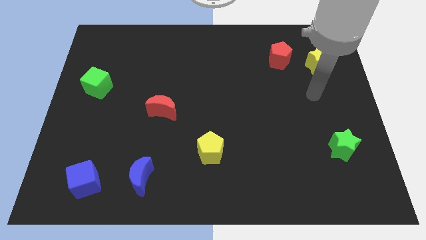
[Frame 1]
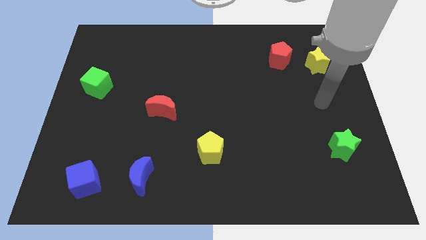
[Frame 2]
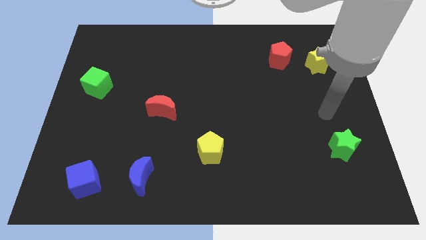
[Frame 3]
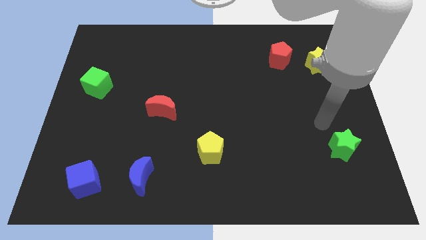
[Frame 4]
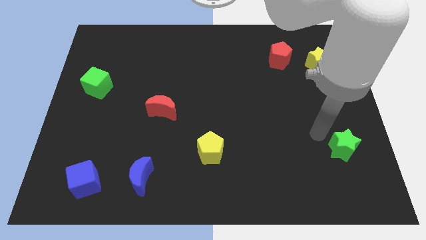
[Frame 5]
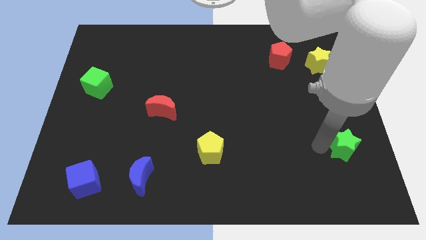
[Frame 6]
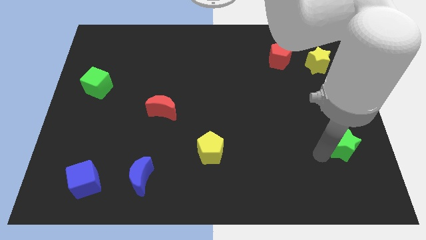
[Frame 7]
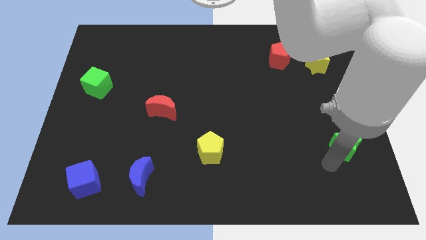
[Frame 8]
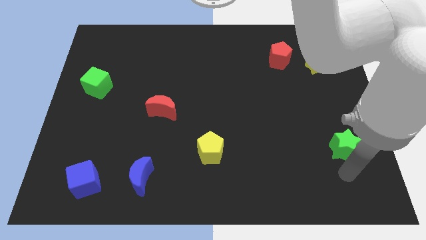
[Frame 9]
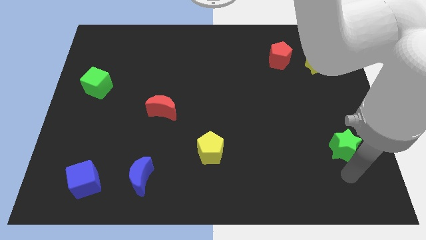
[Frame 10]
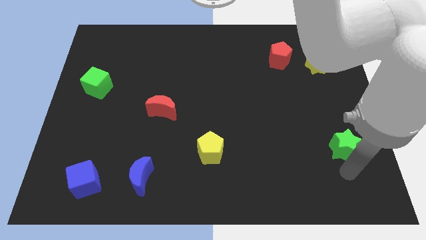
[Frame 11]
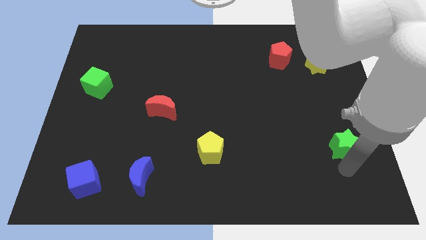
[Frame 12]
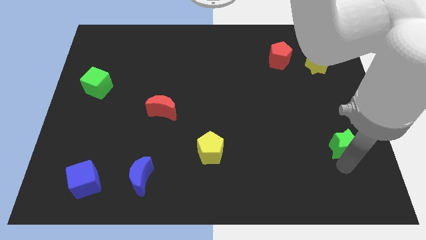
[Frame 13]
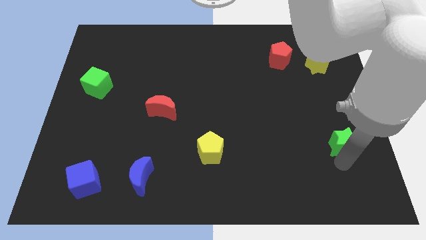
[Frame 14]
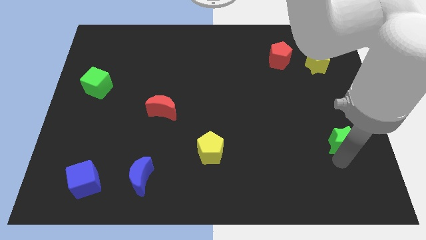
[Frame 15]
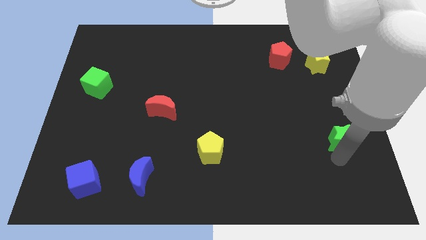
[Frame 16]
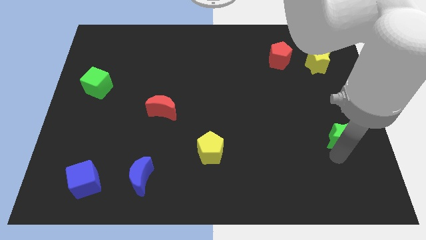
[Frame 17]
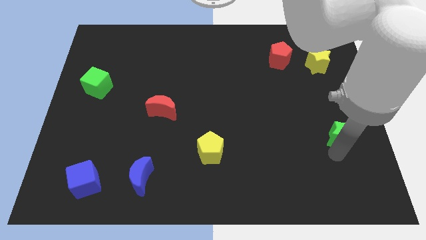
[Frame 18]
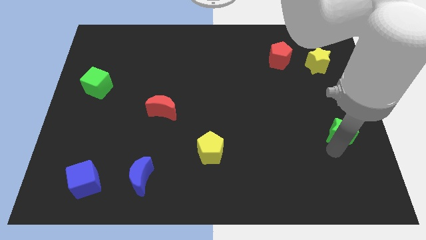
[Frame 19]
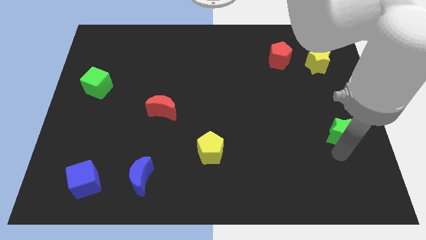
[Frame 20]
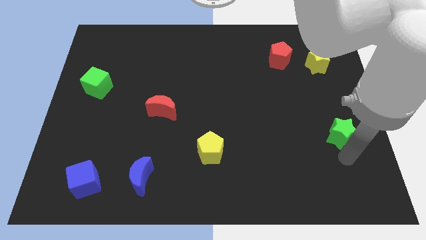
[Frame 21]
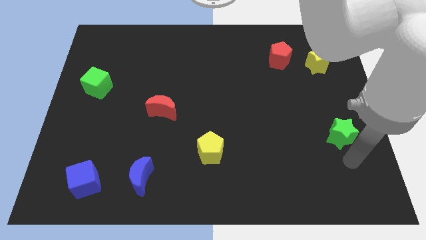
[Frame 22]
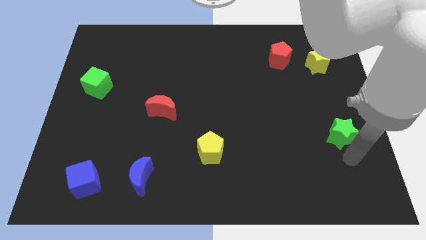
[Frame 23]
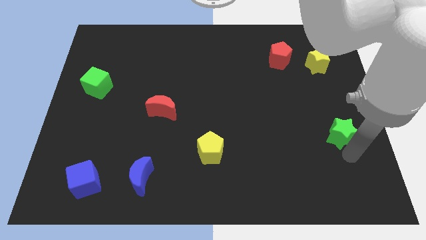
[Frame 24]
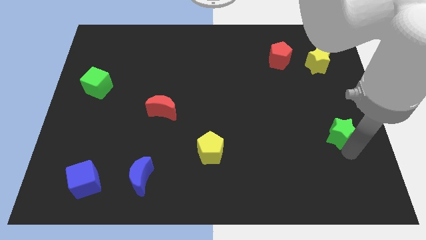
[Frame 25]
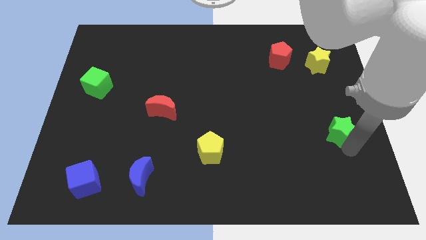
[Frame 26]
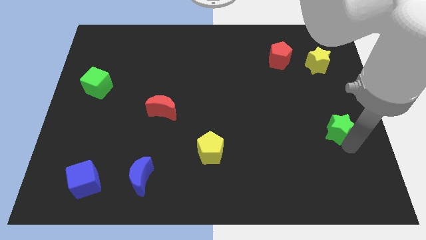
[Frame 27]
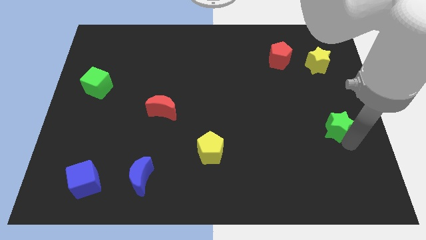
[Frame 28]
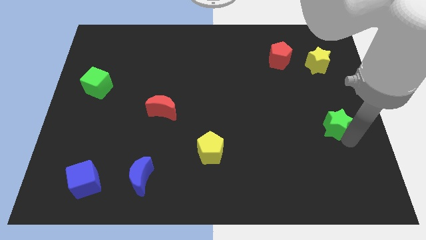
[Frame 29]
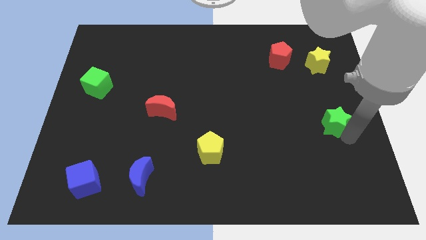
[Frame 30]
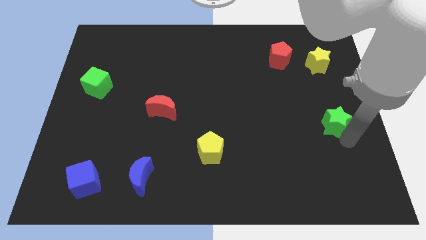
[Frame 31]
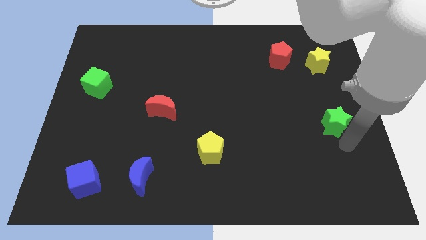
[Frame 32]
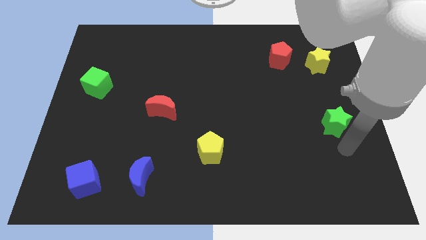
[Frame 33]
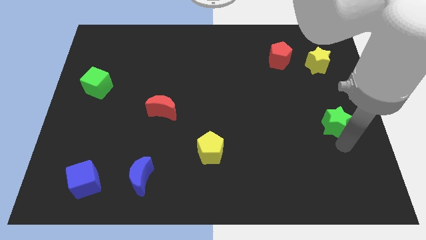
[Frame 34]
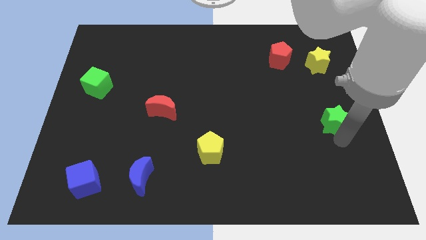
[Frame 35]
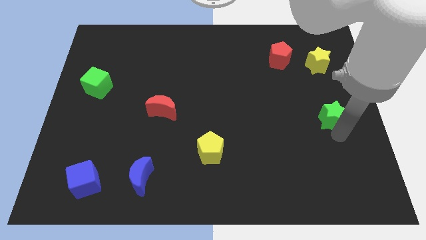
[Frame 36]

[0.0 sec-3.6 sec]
slide the green star a little bit upwards

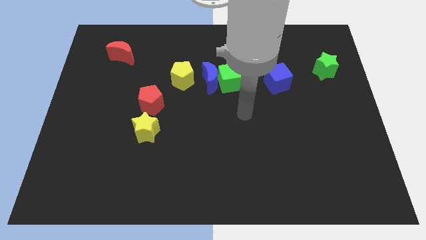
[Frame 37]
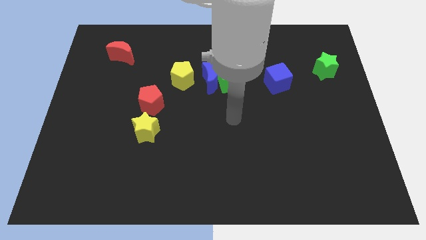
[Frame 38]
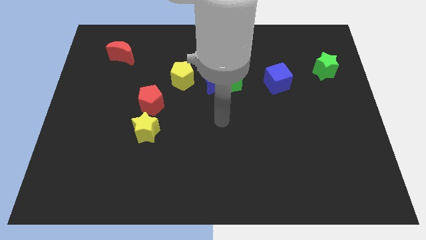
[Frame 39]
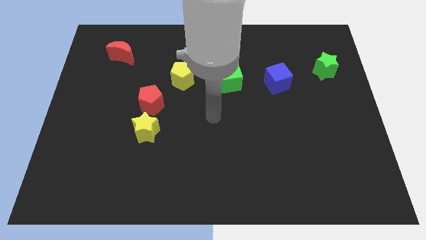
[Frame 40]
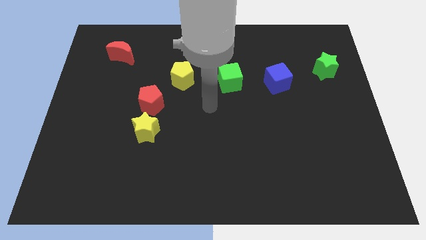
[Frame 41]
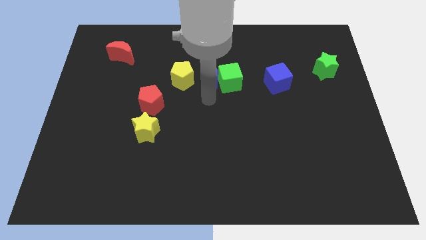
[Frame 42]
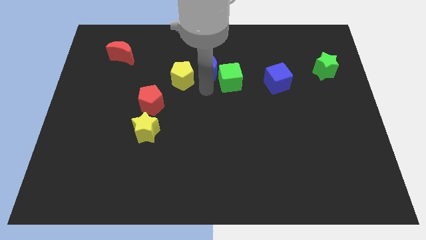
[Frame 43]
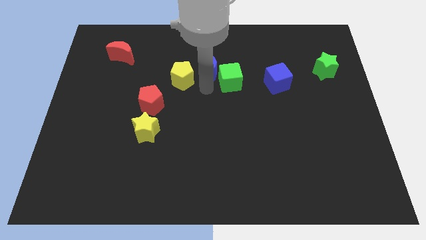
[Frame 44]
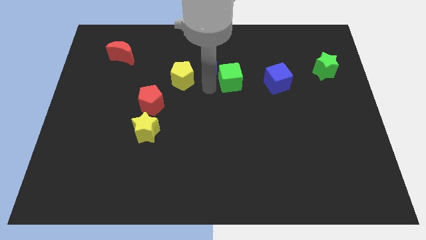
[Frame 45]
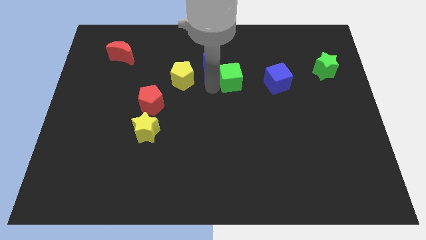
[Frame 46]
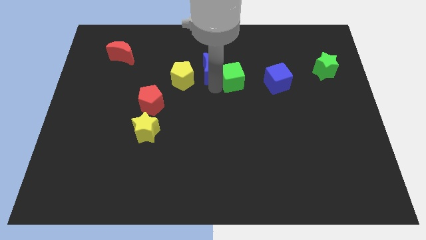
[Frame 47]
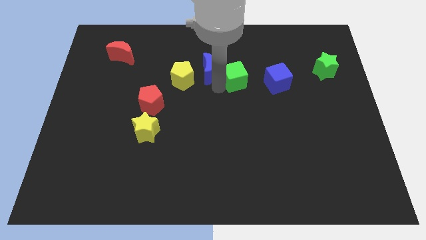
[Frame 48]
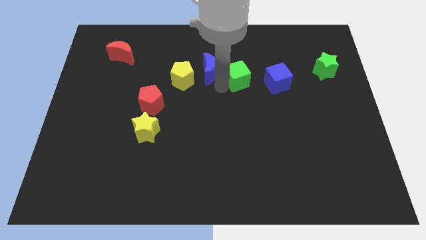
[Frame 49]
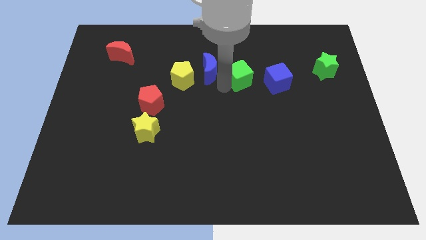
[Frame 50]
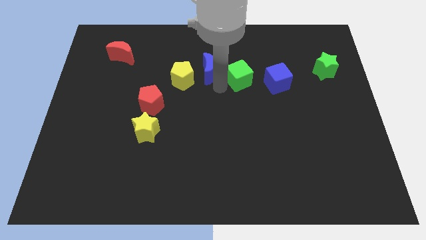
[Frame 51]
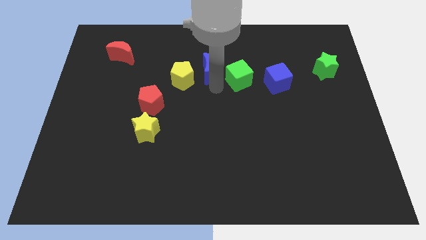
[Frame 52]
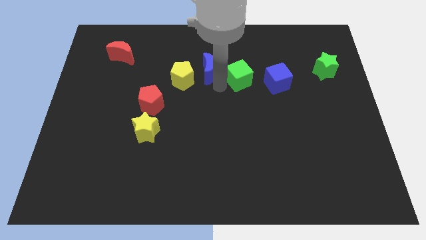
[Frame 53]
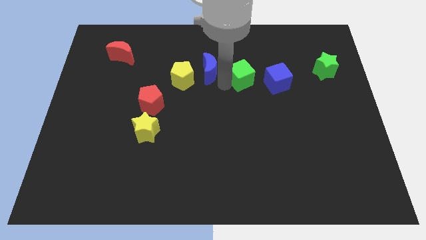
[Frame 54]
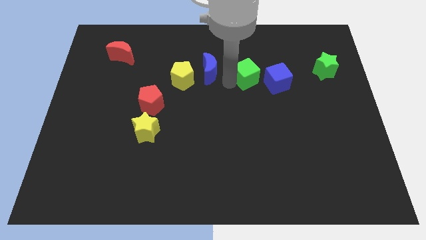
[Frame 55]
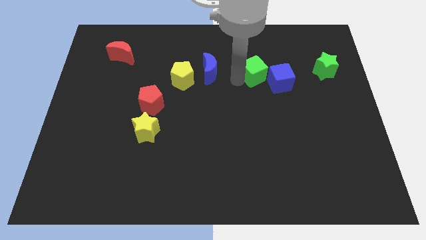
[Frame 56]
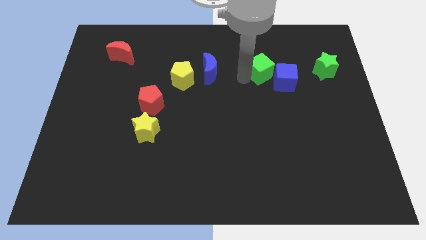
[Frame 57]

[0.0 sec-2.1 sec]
slide the green cube a little bit right

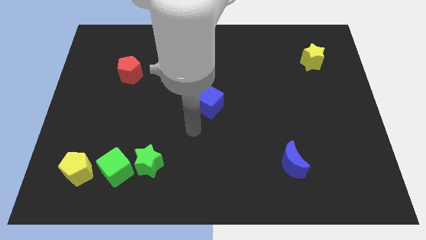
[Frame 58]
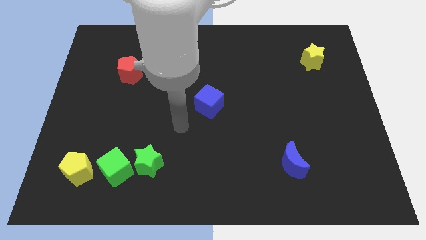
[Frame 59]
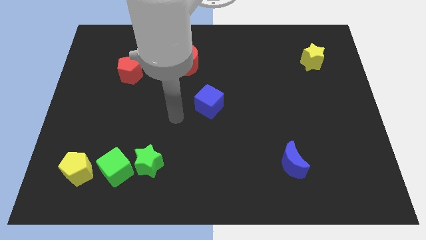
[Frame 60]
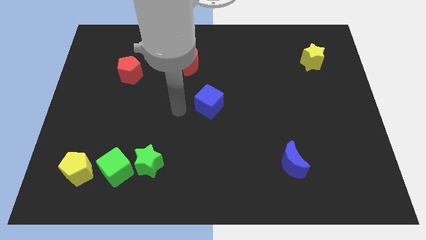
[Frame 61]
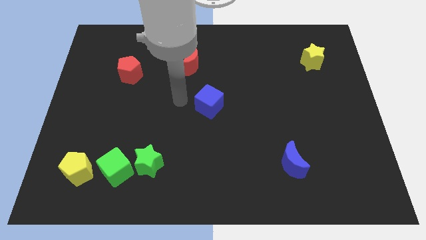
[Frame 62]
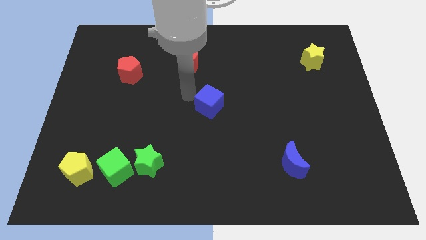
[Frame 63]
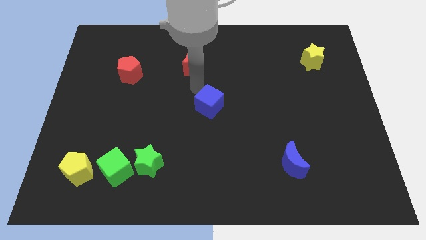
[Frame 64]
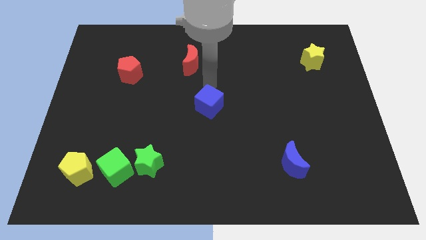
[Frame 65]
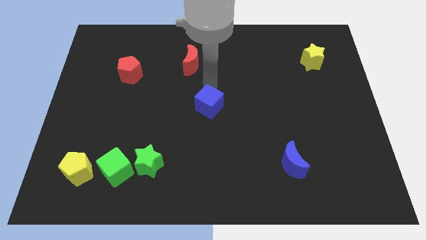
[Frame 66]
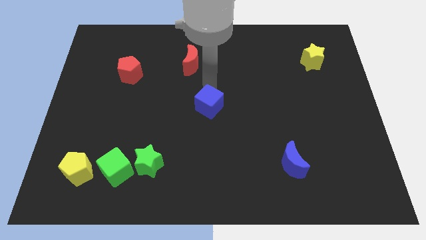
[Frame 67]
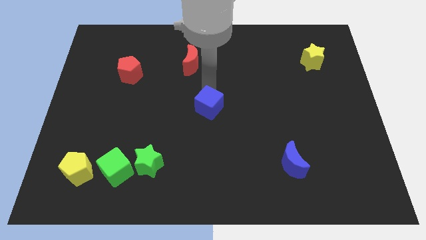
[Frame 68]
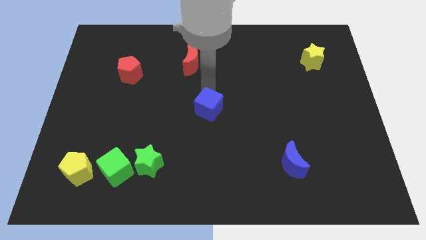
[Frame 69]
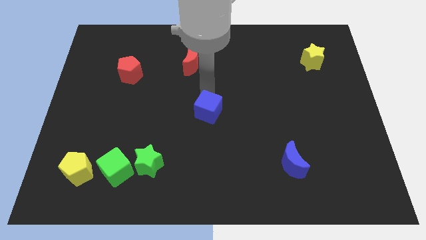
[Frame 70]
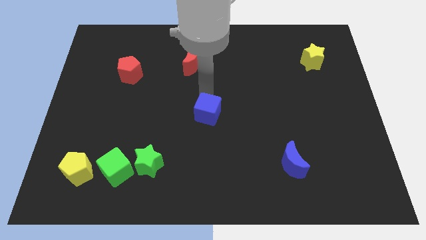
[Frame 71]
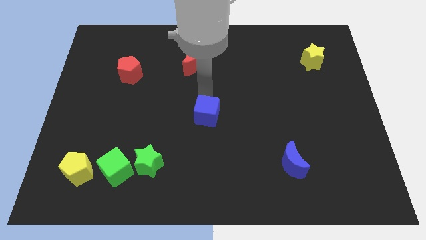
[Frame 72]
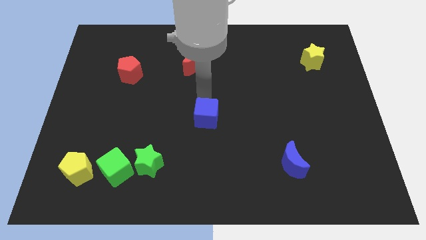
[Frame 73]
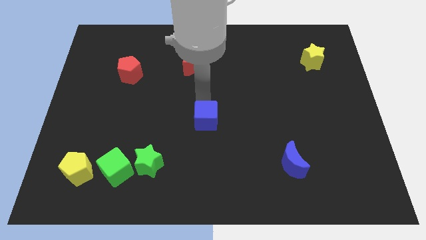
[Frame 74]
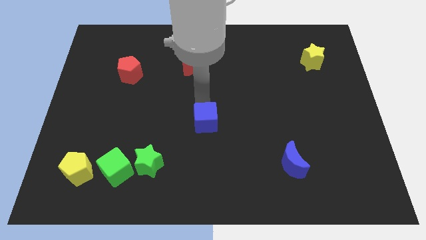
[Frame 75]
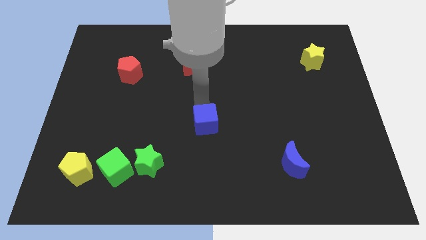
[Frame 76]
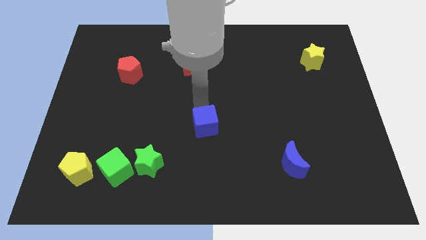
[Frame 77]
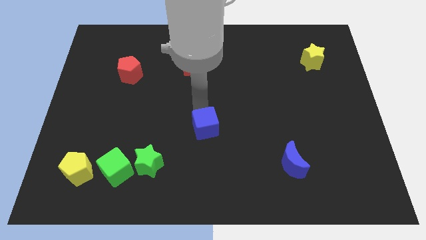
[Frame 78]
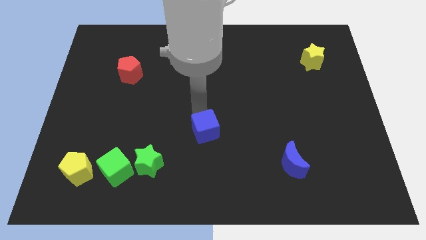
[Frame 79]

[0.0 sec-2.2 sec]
move the blue cube downwards a bit

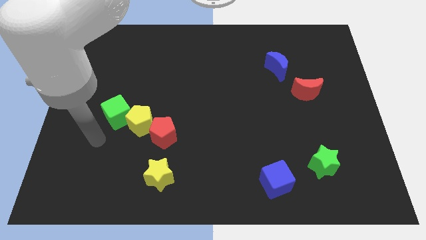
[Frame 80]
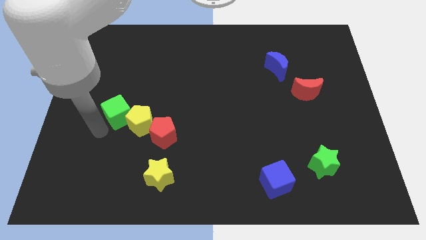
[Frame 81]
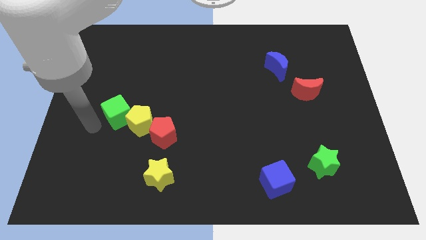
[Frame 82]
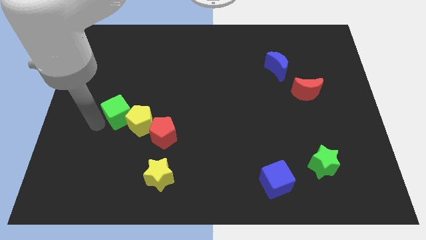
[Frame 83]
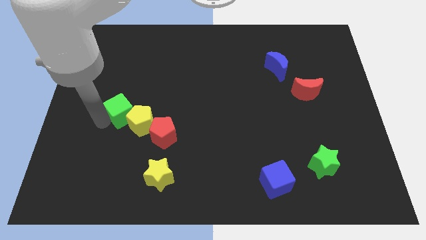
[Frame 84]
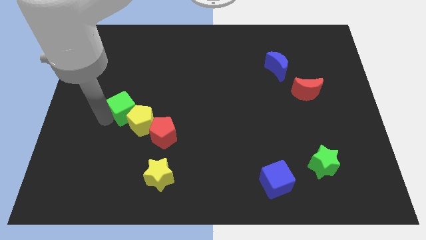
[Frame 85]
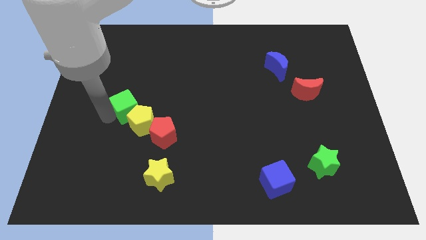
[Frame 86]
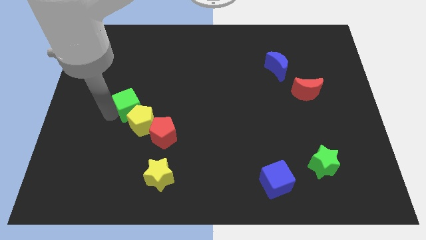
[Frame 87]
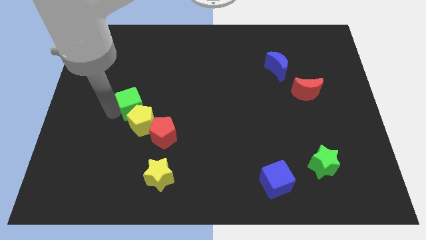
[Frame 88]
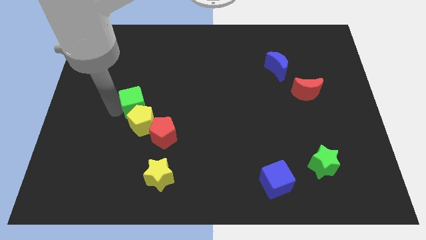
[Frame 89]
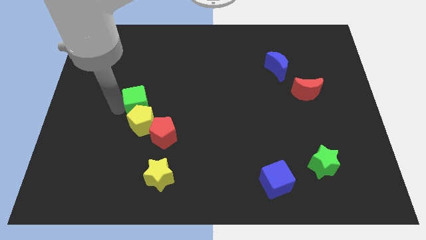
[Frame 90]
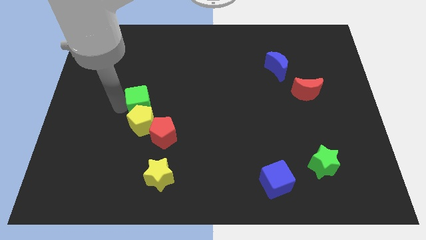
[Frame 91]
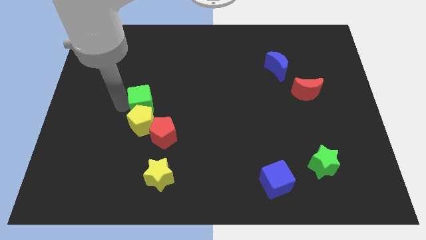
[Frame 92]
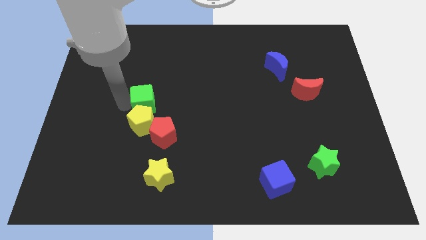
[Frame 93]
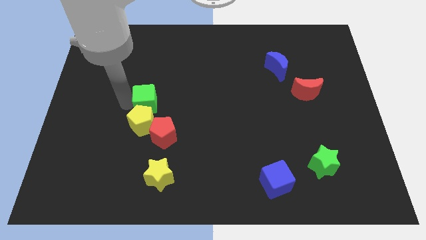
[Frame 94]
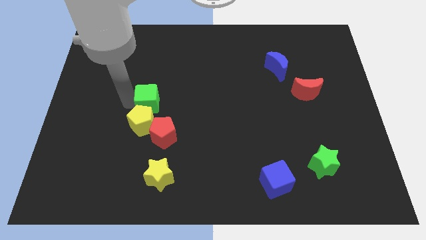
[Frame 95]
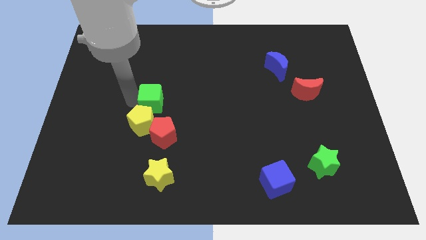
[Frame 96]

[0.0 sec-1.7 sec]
move the green cube a little bit to the right
